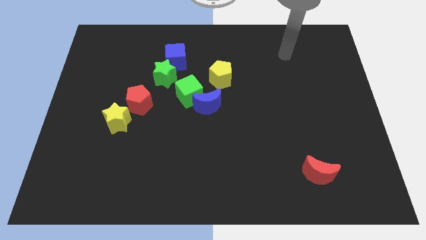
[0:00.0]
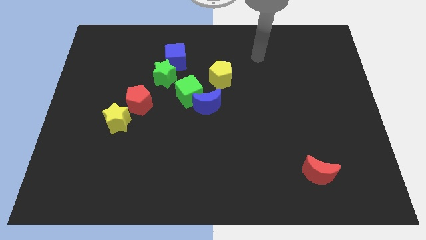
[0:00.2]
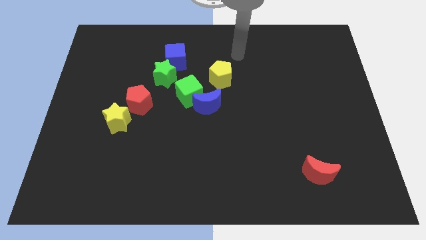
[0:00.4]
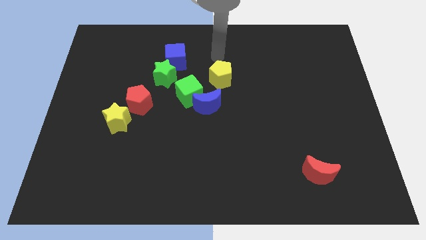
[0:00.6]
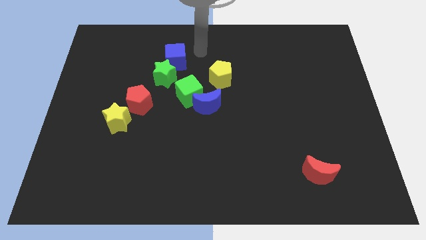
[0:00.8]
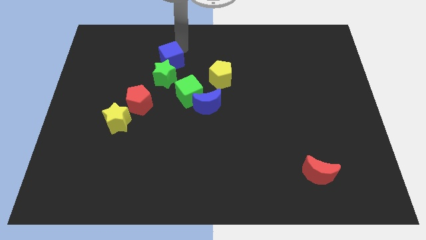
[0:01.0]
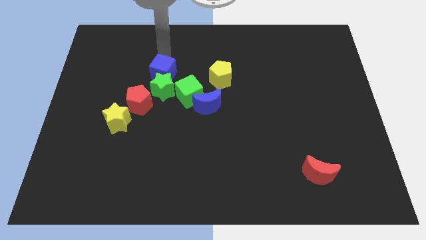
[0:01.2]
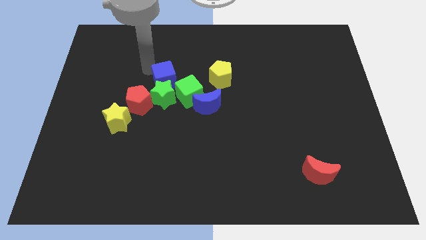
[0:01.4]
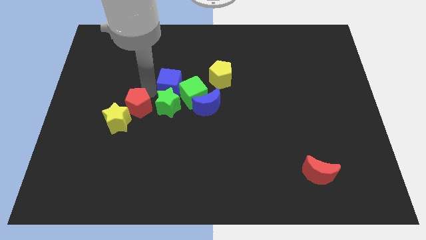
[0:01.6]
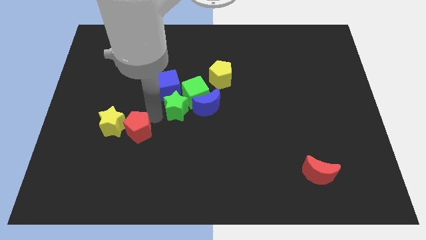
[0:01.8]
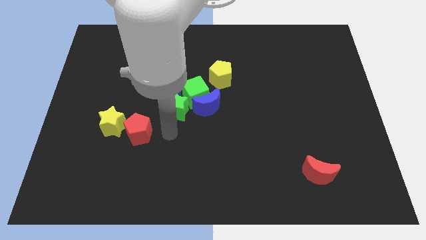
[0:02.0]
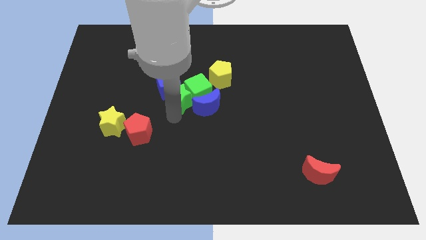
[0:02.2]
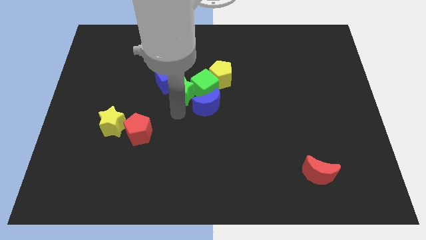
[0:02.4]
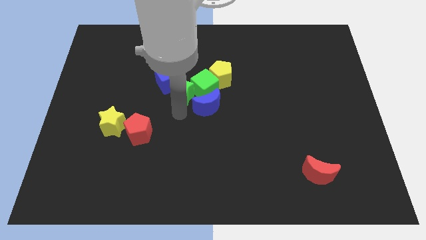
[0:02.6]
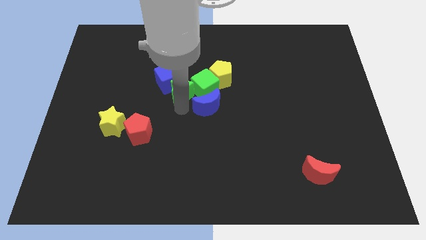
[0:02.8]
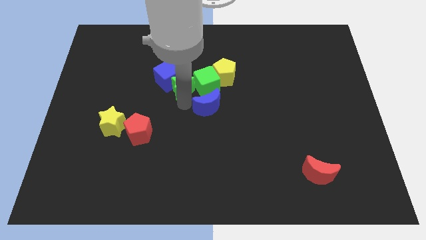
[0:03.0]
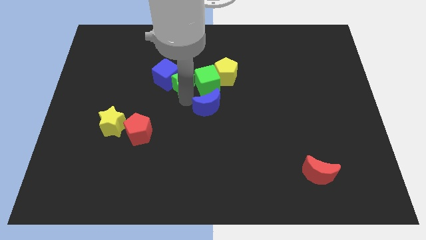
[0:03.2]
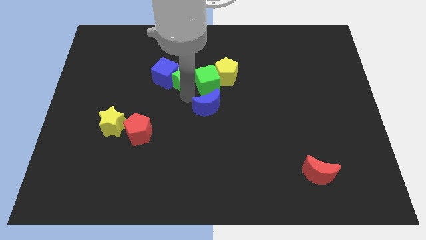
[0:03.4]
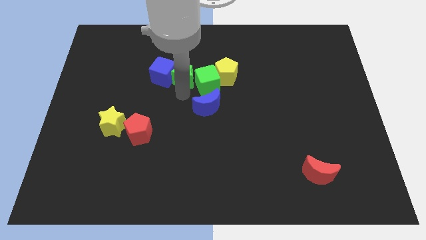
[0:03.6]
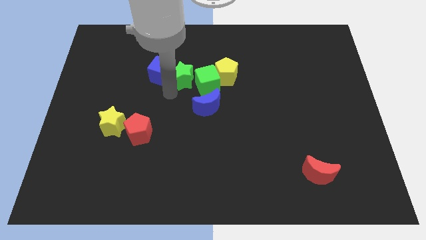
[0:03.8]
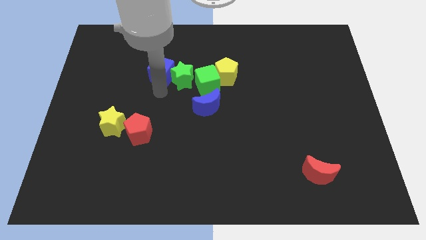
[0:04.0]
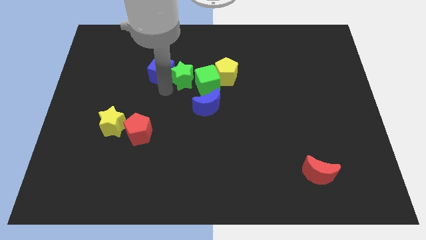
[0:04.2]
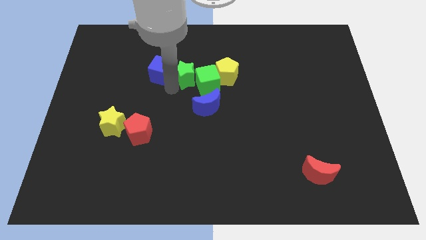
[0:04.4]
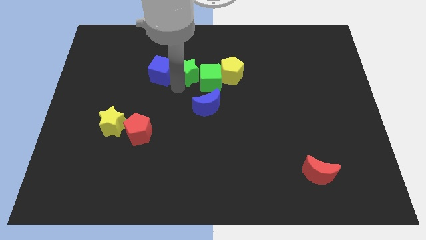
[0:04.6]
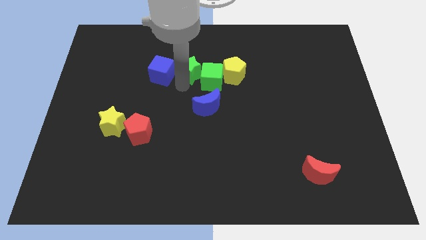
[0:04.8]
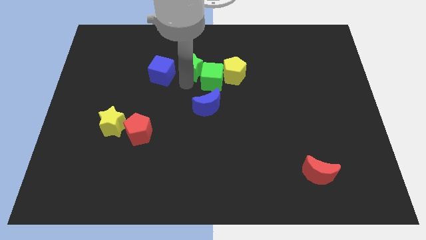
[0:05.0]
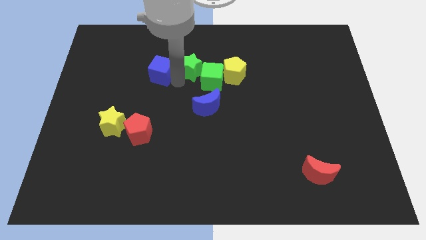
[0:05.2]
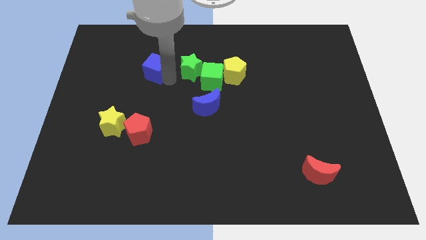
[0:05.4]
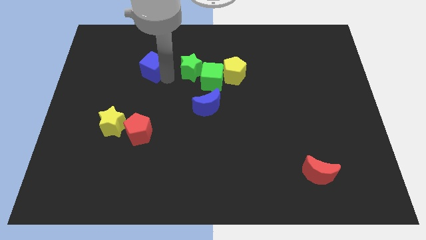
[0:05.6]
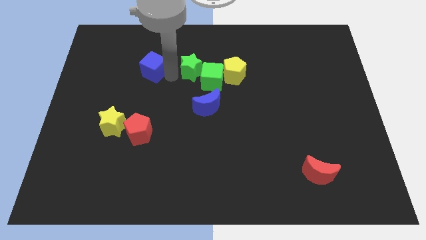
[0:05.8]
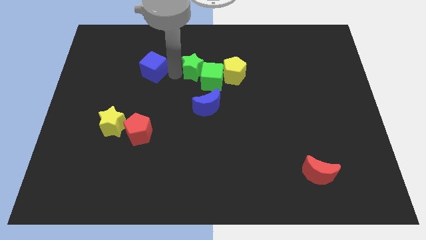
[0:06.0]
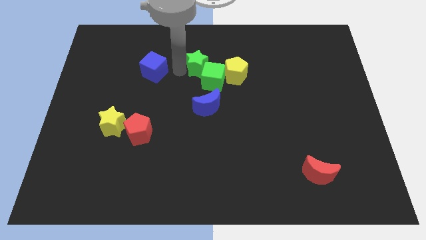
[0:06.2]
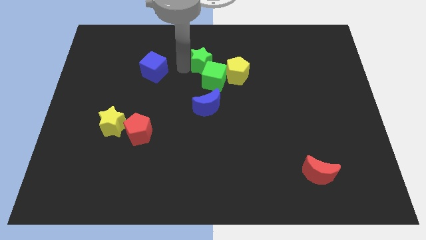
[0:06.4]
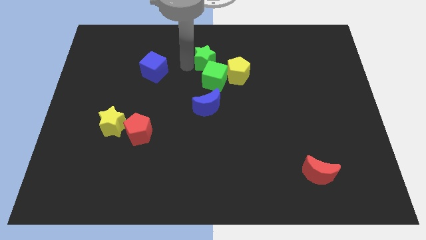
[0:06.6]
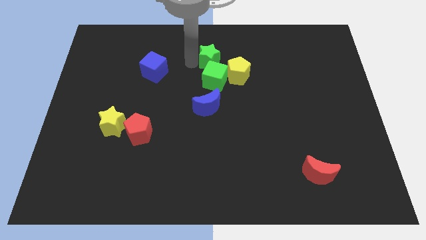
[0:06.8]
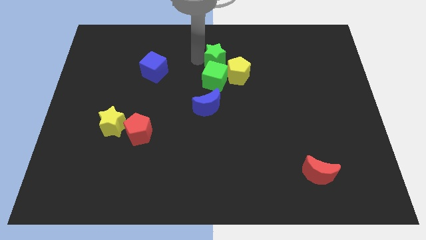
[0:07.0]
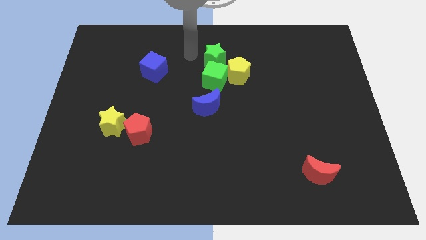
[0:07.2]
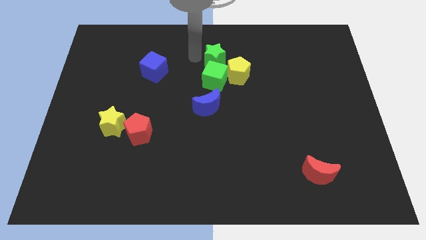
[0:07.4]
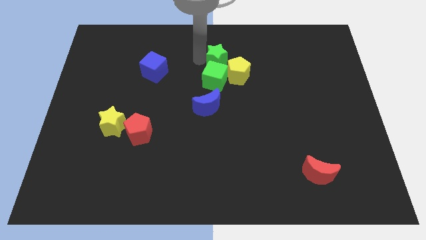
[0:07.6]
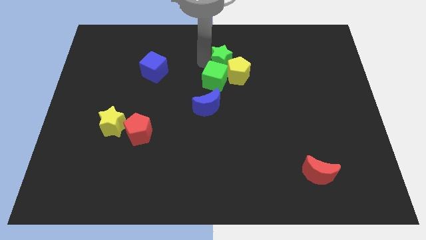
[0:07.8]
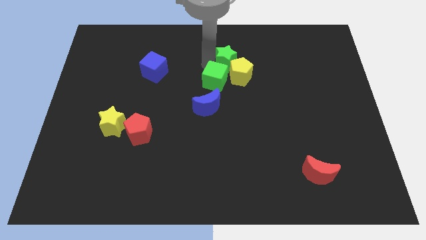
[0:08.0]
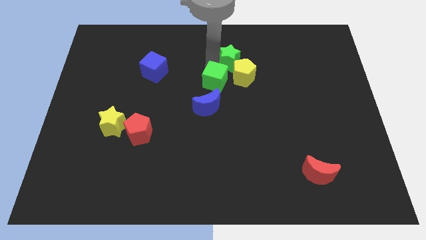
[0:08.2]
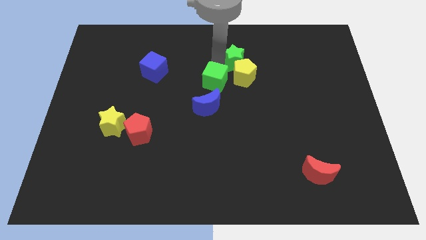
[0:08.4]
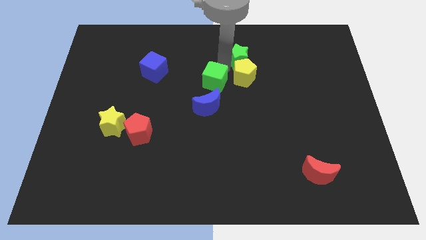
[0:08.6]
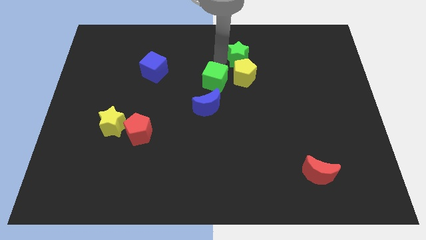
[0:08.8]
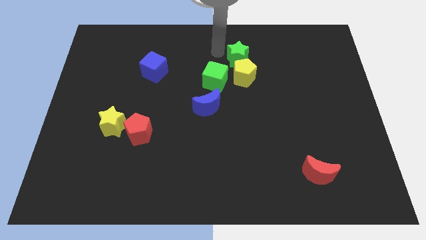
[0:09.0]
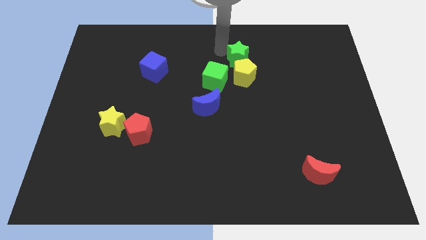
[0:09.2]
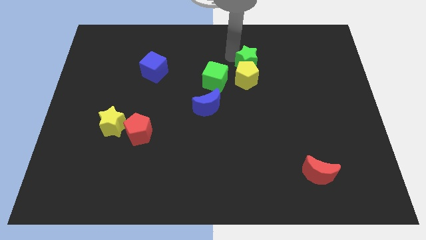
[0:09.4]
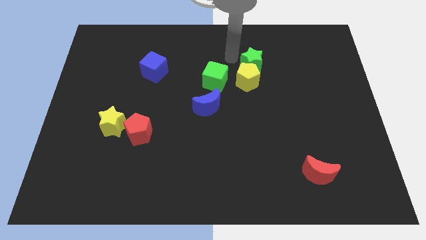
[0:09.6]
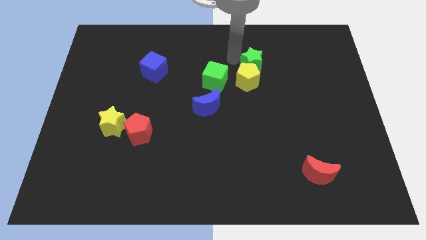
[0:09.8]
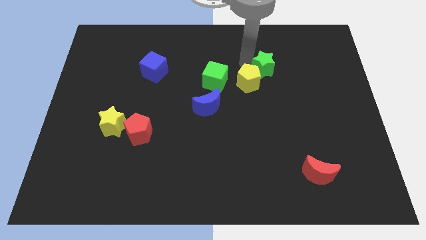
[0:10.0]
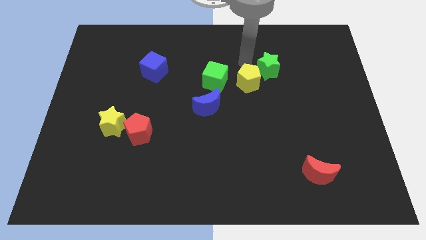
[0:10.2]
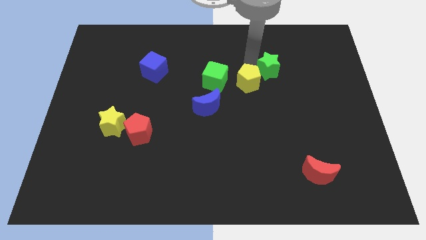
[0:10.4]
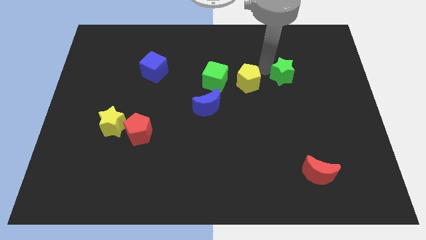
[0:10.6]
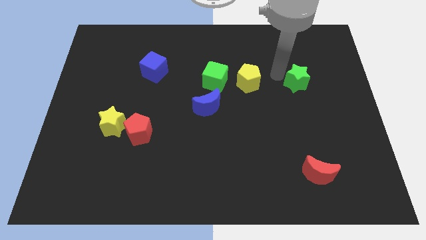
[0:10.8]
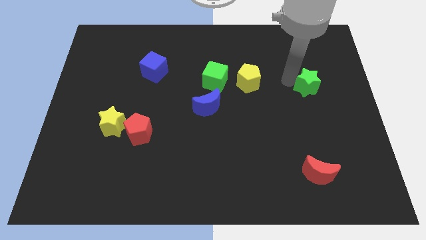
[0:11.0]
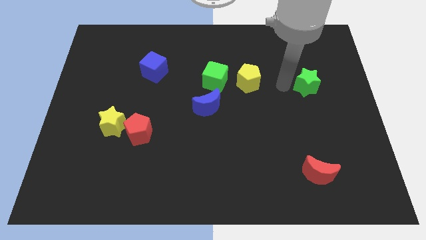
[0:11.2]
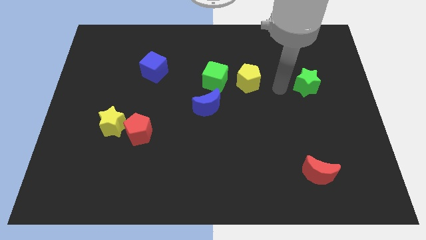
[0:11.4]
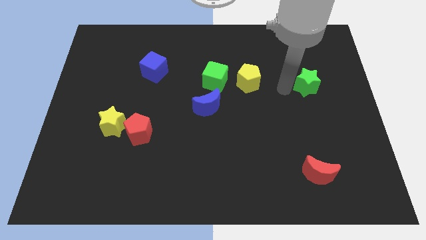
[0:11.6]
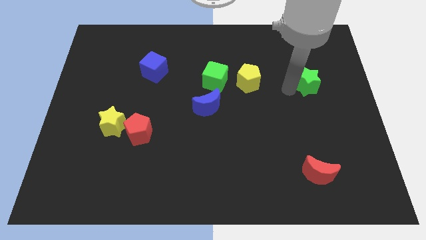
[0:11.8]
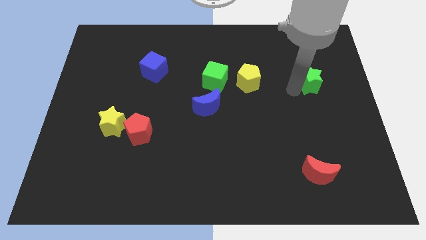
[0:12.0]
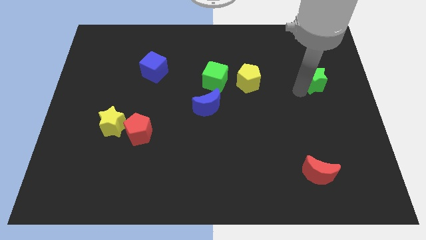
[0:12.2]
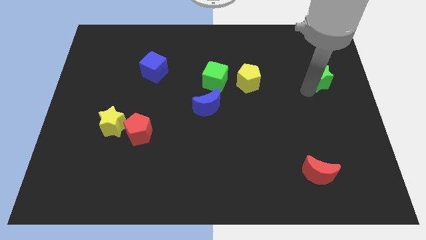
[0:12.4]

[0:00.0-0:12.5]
push the green star to the right side

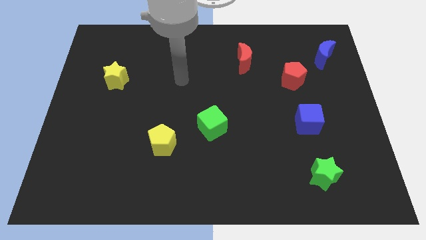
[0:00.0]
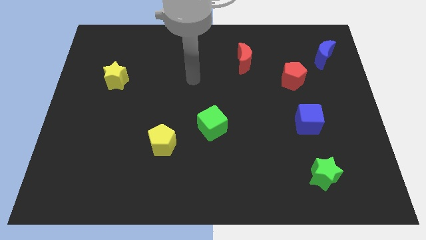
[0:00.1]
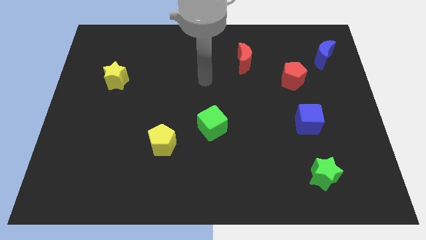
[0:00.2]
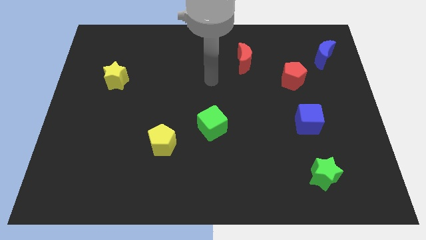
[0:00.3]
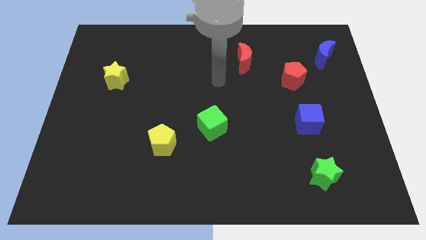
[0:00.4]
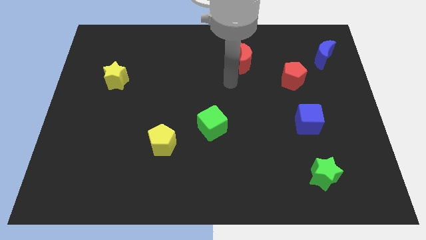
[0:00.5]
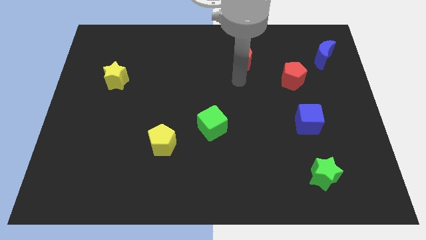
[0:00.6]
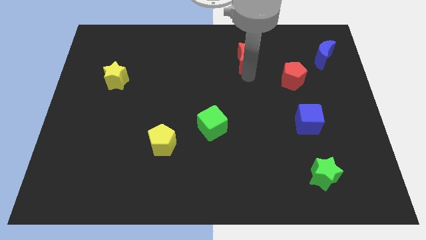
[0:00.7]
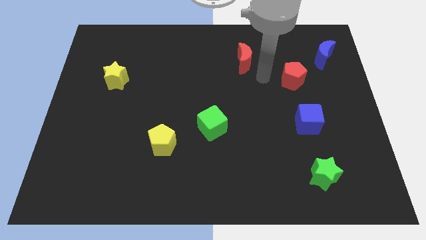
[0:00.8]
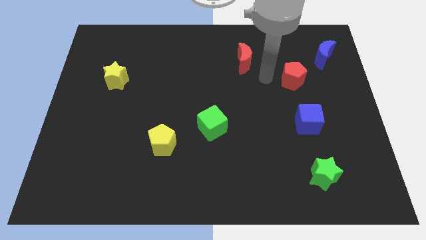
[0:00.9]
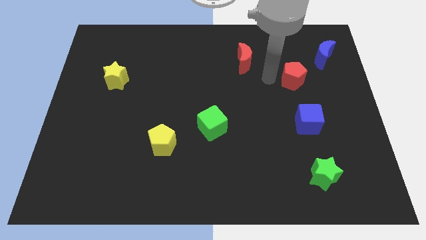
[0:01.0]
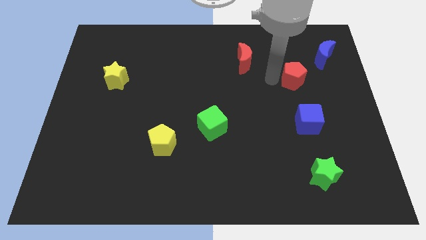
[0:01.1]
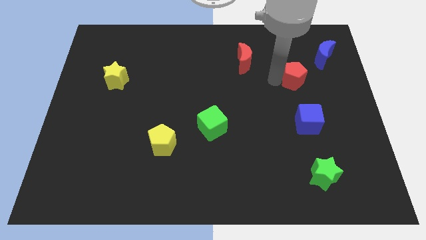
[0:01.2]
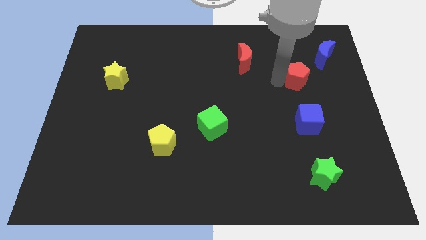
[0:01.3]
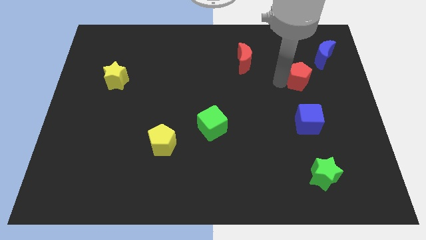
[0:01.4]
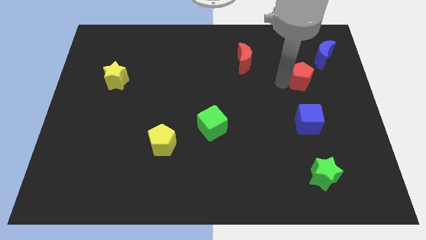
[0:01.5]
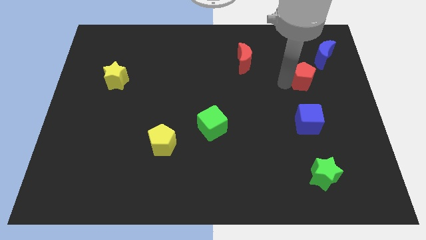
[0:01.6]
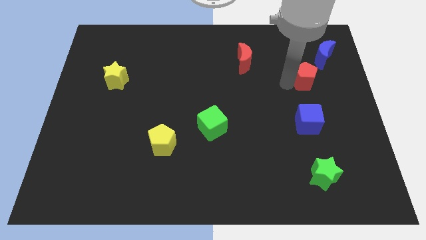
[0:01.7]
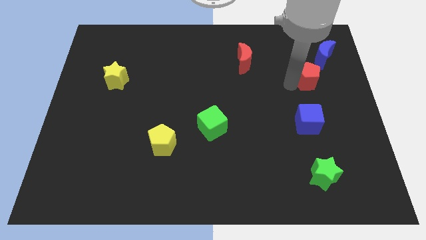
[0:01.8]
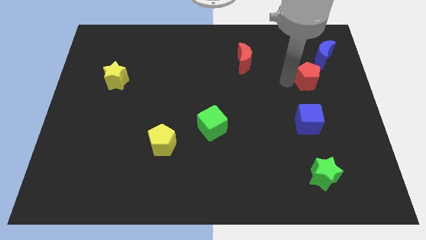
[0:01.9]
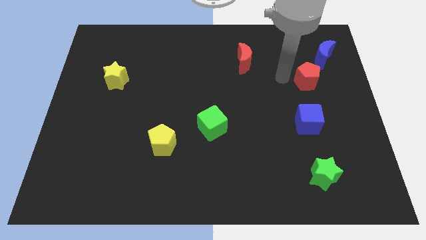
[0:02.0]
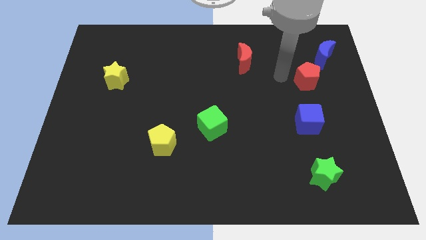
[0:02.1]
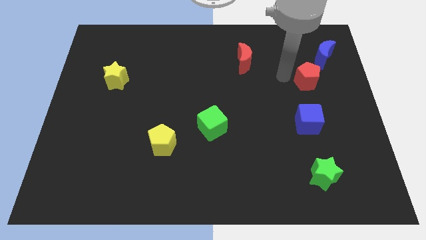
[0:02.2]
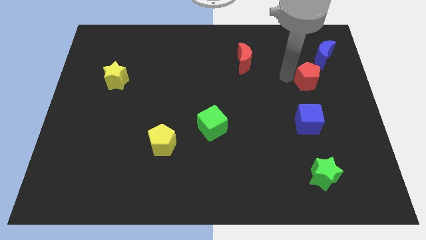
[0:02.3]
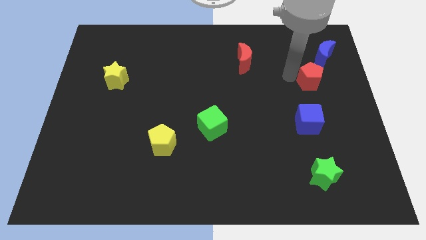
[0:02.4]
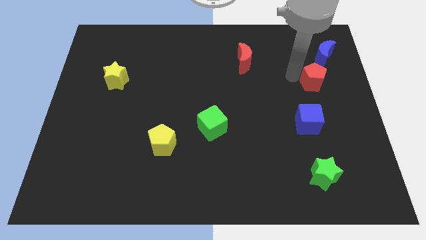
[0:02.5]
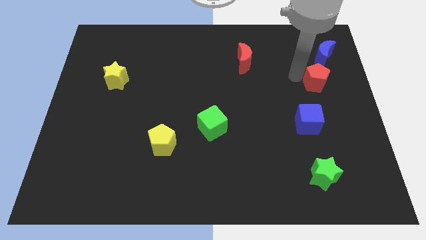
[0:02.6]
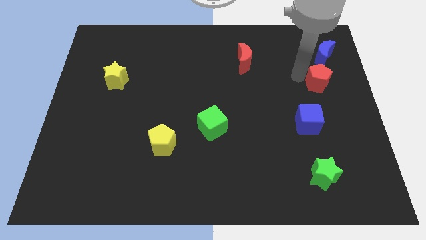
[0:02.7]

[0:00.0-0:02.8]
move the red pentagon to the right side
